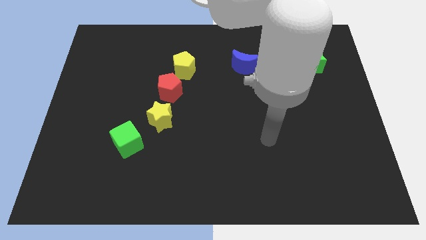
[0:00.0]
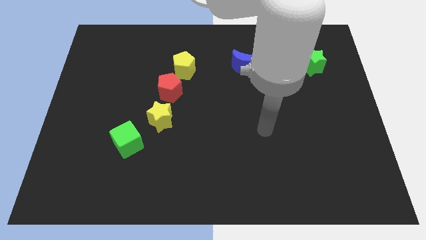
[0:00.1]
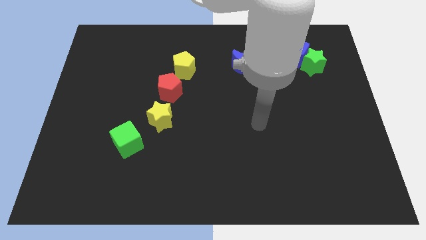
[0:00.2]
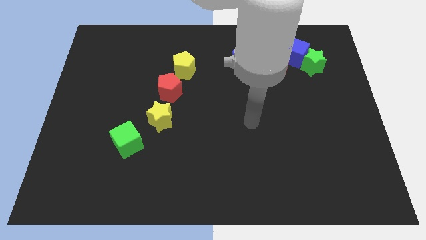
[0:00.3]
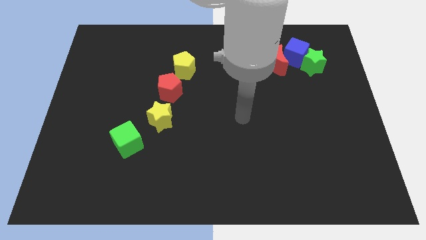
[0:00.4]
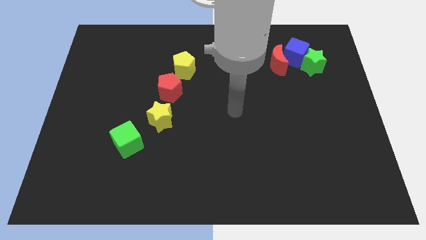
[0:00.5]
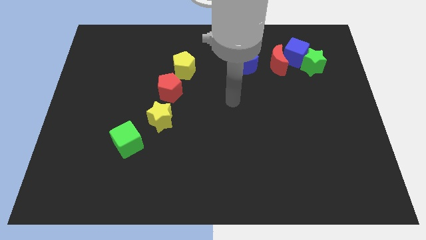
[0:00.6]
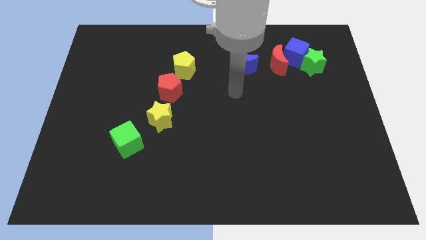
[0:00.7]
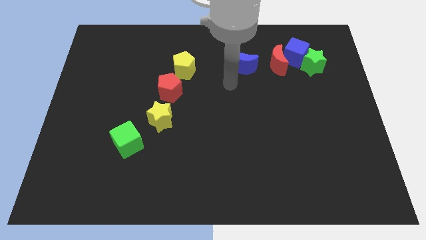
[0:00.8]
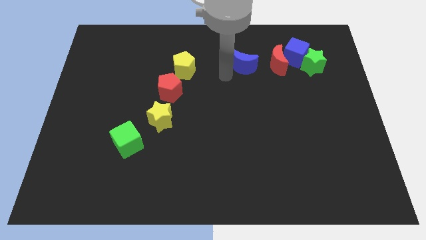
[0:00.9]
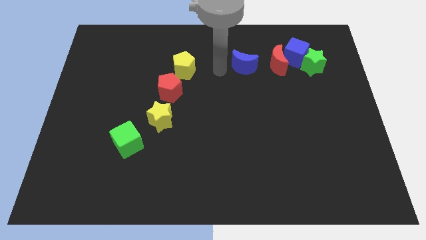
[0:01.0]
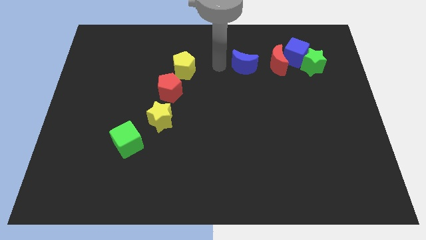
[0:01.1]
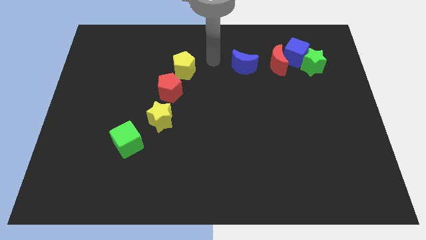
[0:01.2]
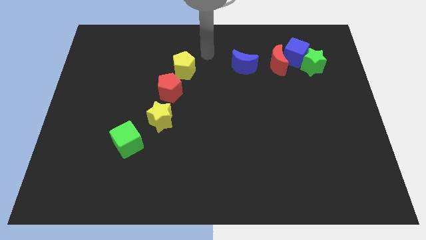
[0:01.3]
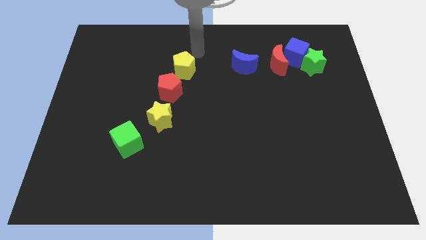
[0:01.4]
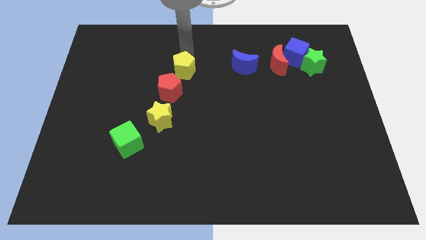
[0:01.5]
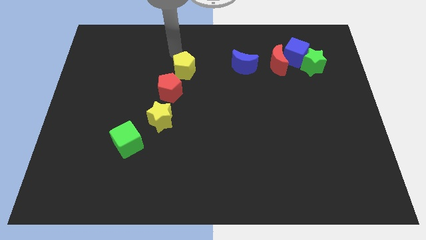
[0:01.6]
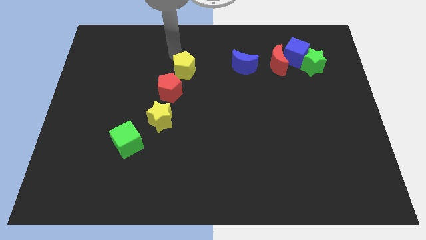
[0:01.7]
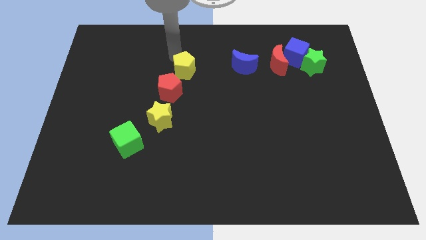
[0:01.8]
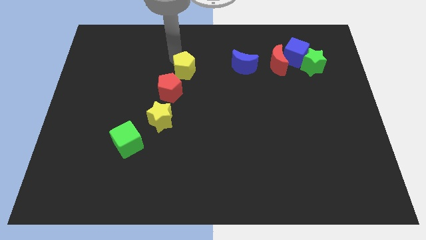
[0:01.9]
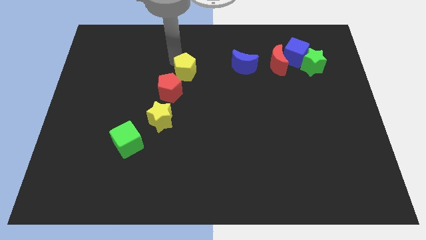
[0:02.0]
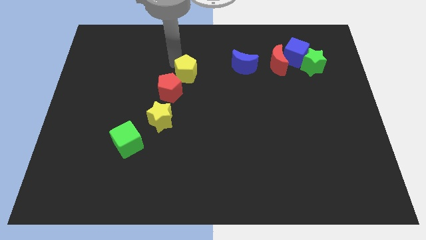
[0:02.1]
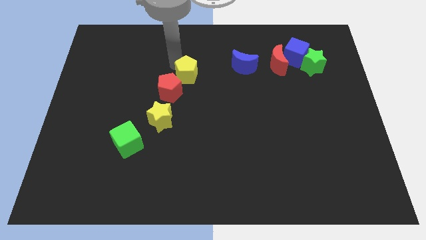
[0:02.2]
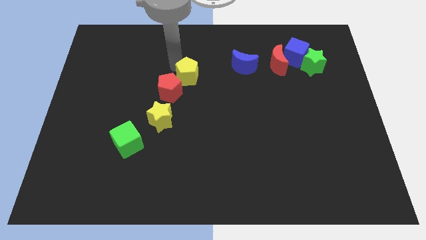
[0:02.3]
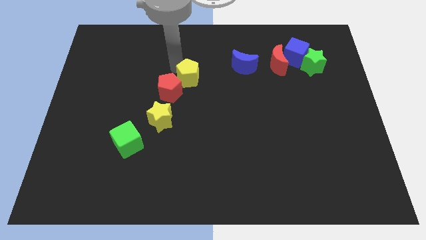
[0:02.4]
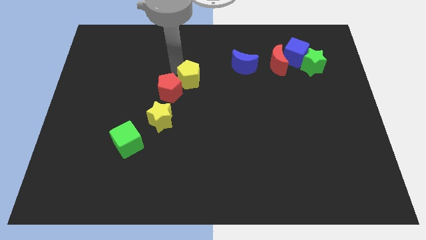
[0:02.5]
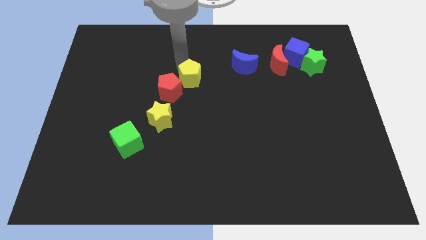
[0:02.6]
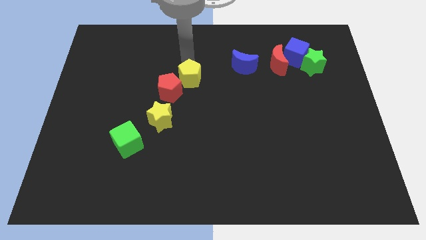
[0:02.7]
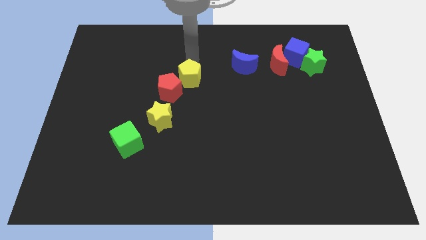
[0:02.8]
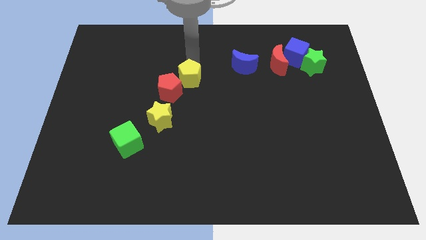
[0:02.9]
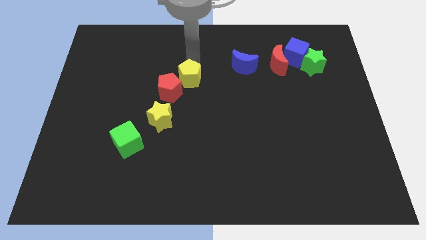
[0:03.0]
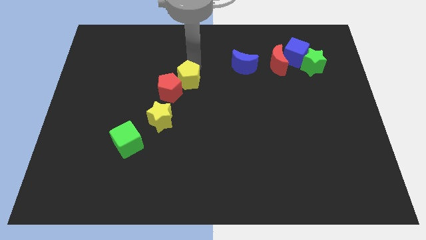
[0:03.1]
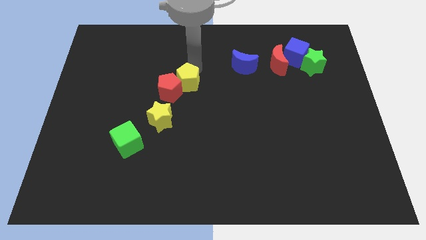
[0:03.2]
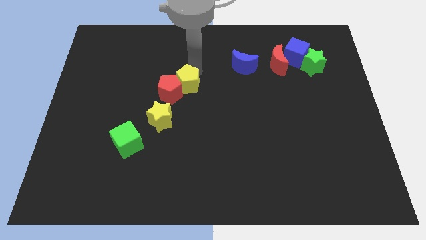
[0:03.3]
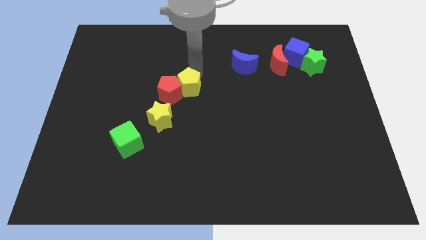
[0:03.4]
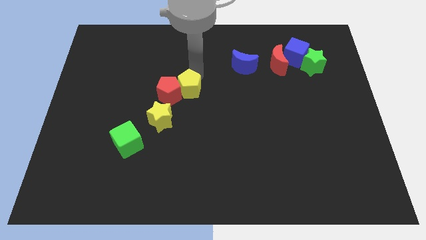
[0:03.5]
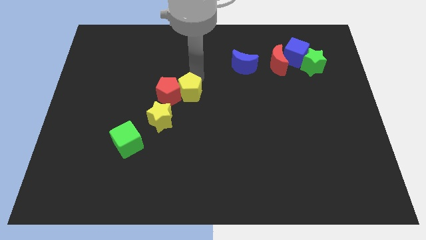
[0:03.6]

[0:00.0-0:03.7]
slide the yellow pentagon a bit down

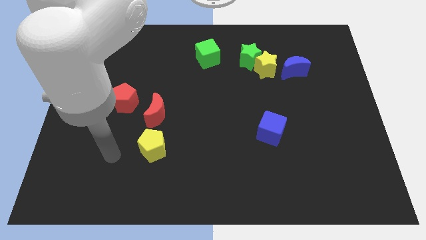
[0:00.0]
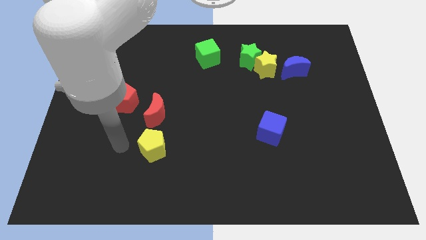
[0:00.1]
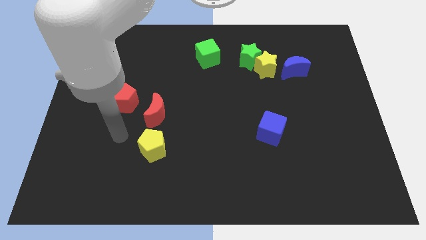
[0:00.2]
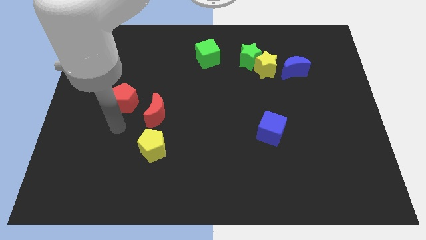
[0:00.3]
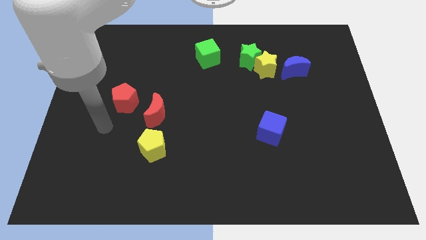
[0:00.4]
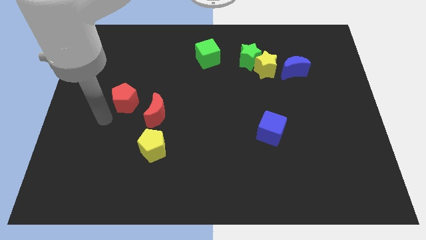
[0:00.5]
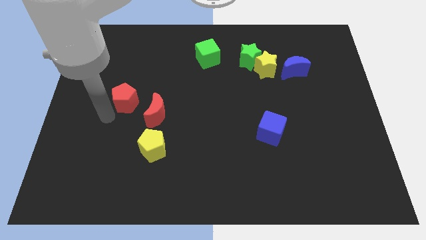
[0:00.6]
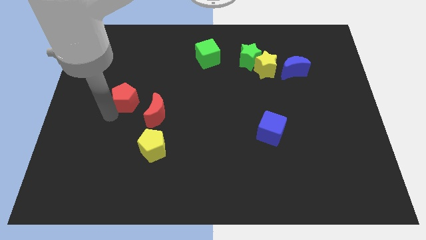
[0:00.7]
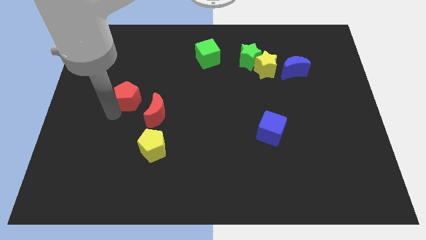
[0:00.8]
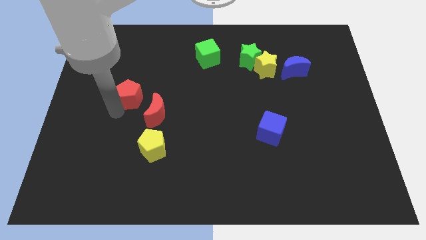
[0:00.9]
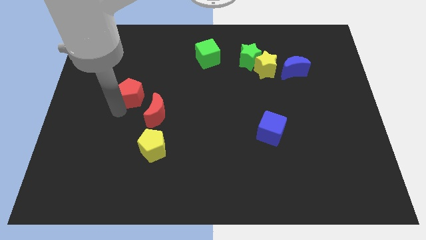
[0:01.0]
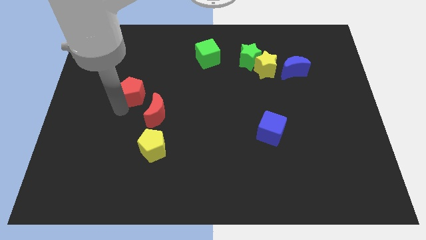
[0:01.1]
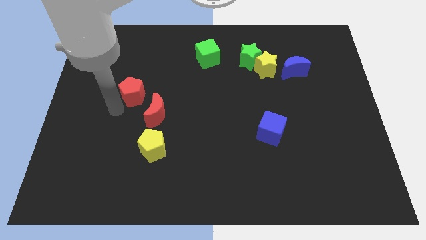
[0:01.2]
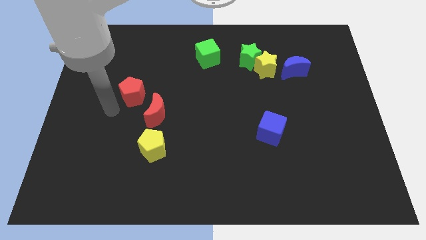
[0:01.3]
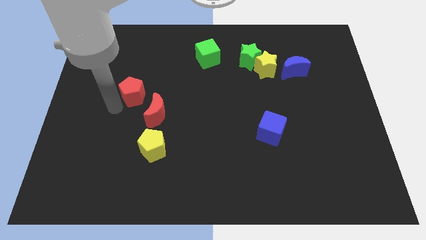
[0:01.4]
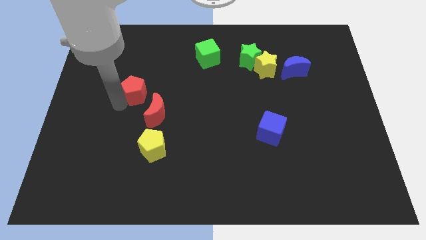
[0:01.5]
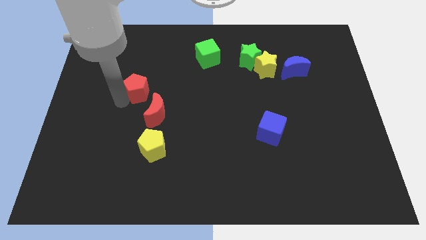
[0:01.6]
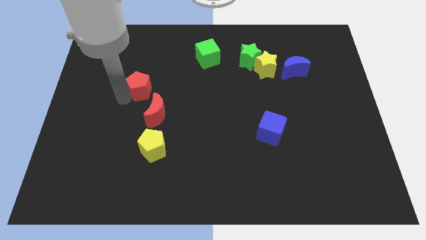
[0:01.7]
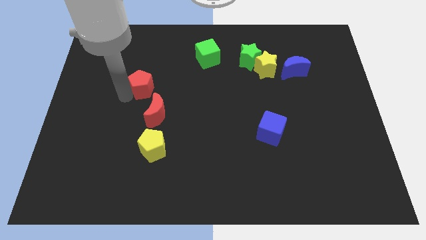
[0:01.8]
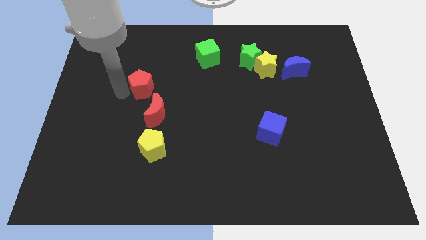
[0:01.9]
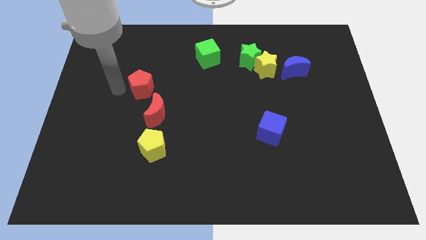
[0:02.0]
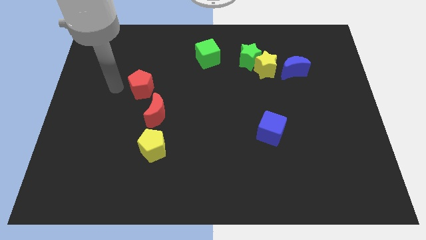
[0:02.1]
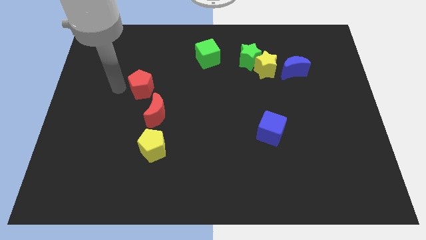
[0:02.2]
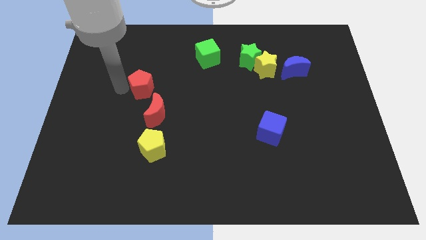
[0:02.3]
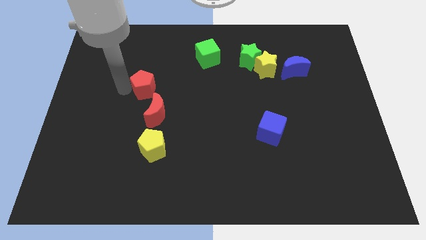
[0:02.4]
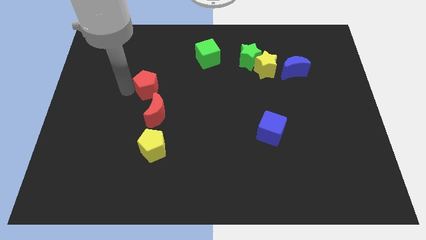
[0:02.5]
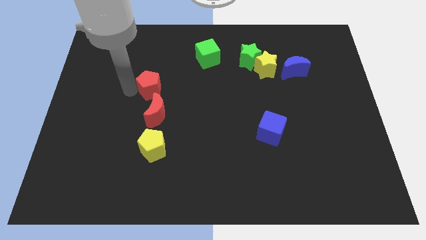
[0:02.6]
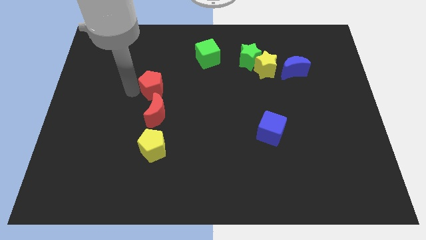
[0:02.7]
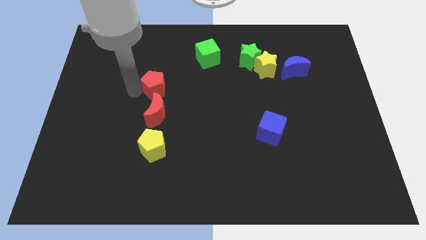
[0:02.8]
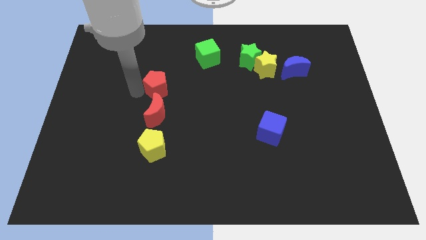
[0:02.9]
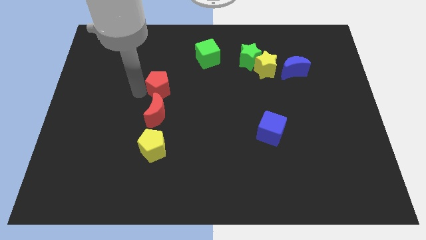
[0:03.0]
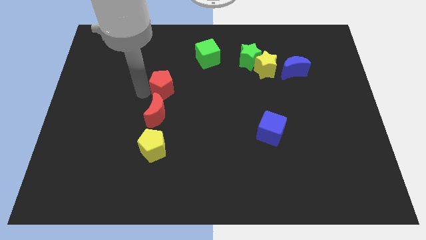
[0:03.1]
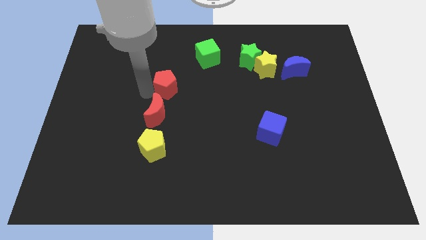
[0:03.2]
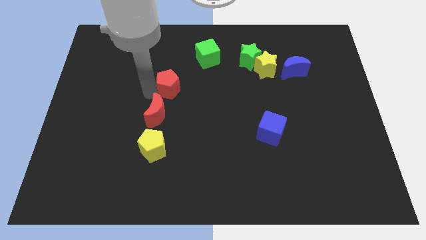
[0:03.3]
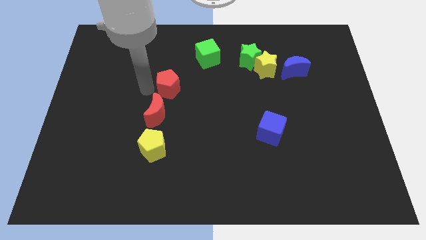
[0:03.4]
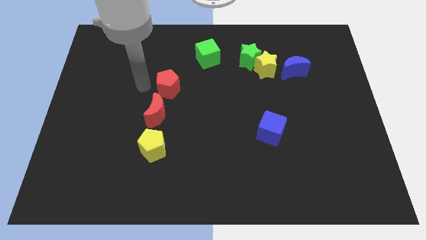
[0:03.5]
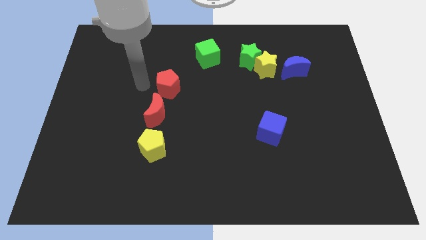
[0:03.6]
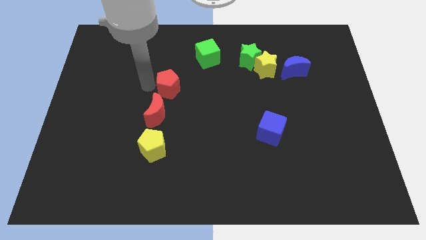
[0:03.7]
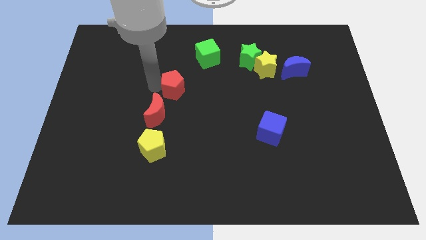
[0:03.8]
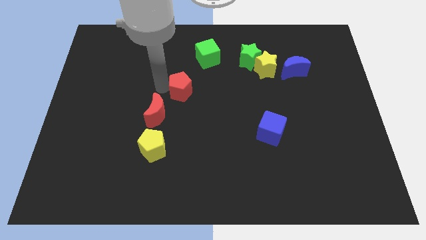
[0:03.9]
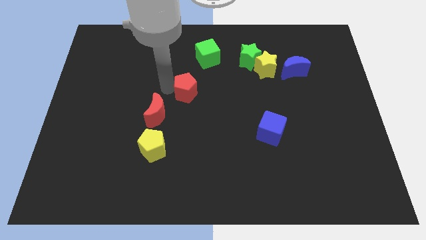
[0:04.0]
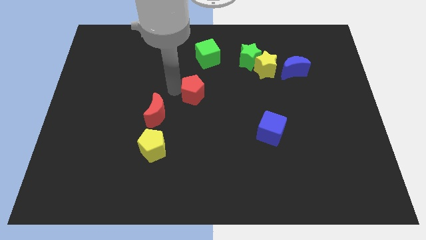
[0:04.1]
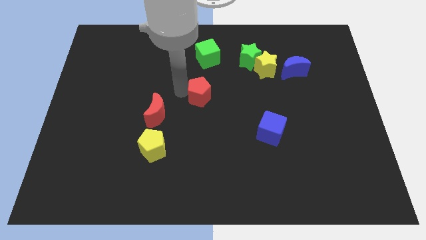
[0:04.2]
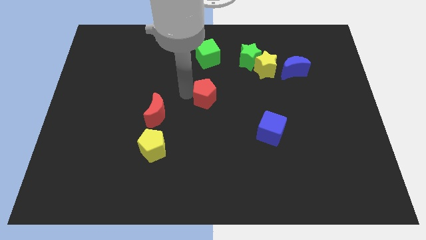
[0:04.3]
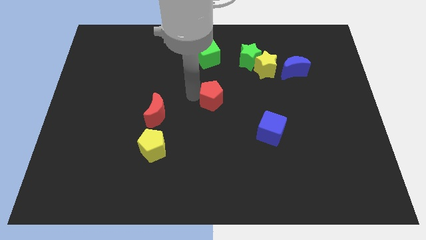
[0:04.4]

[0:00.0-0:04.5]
push the red pentagon to the right
